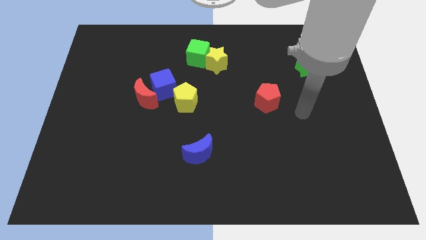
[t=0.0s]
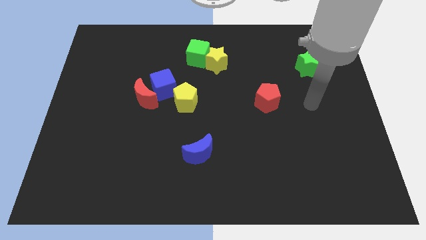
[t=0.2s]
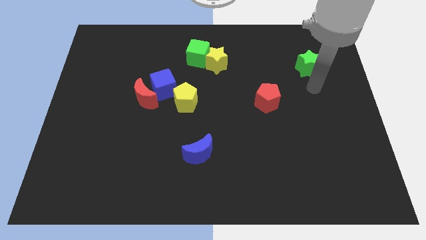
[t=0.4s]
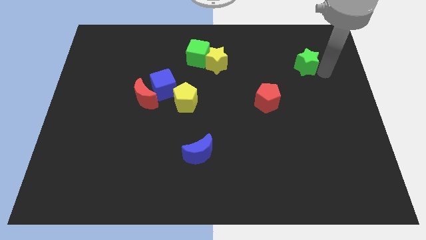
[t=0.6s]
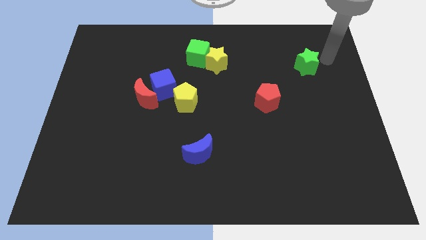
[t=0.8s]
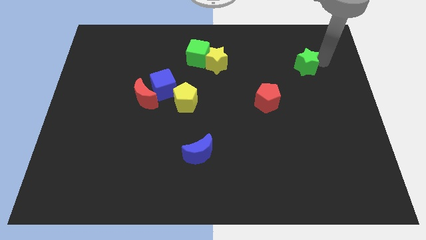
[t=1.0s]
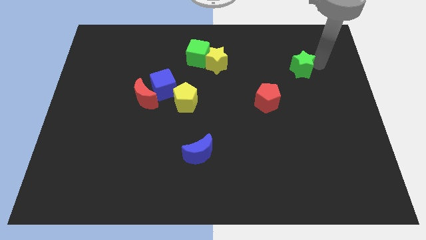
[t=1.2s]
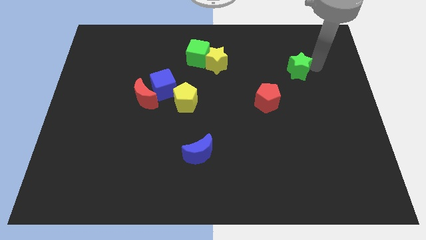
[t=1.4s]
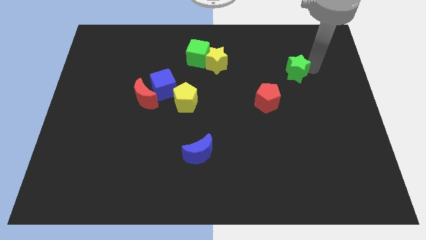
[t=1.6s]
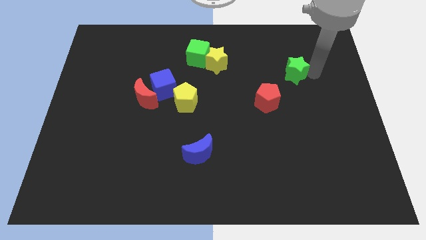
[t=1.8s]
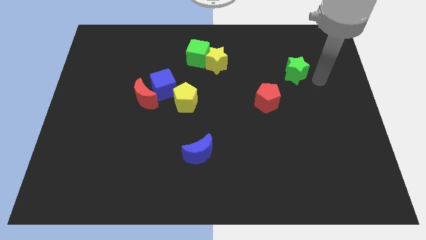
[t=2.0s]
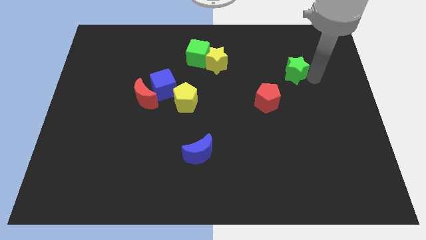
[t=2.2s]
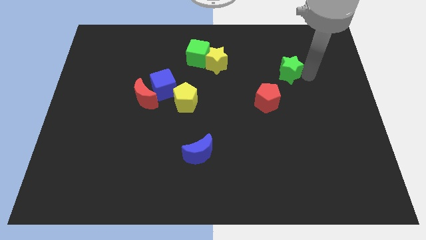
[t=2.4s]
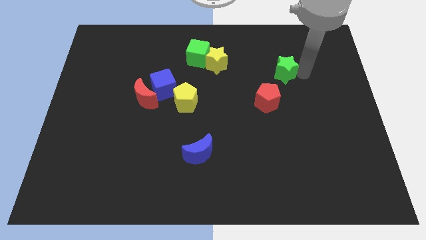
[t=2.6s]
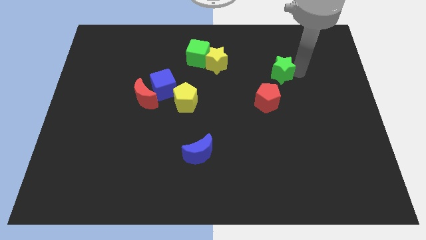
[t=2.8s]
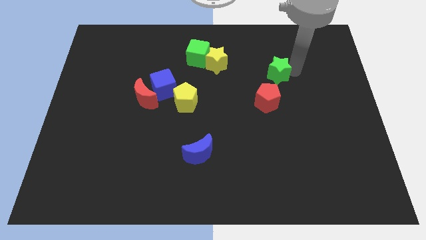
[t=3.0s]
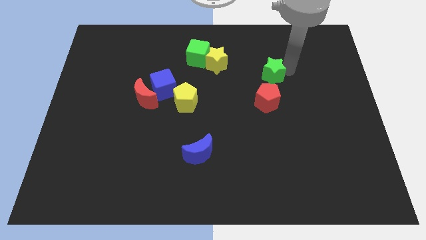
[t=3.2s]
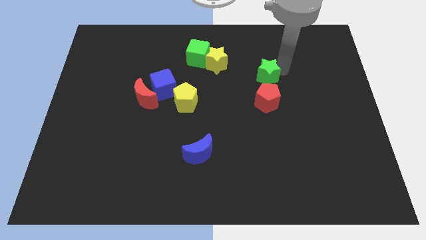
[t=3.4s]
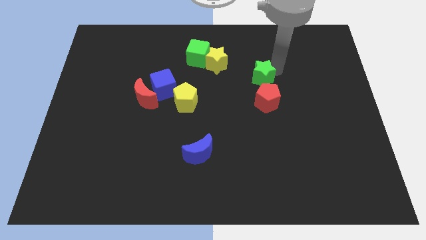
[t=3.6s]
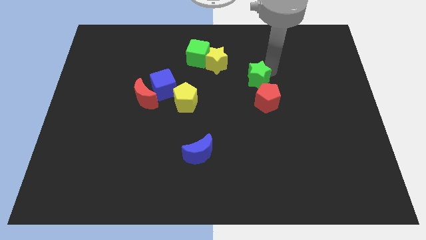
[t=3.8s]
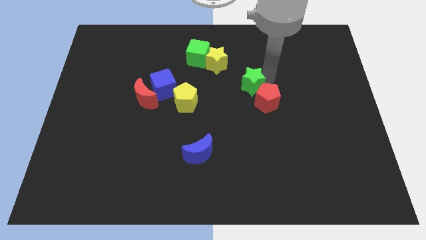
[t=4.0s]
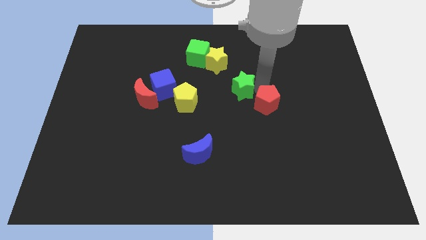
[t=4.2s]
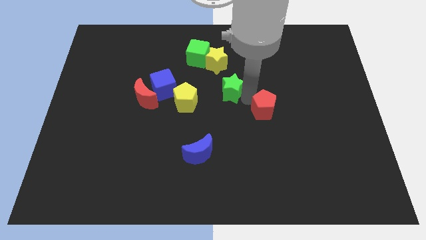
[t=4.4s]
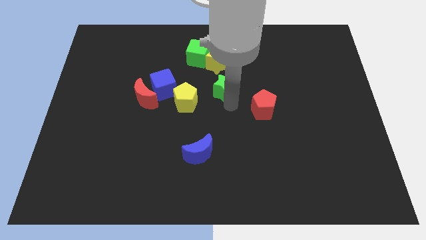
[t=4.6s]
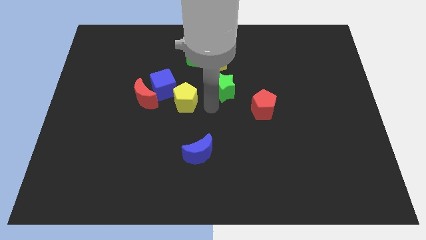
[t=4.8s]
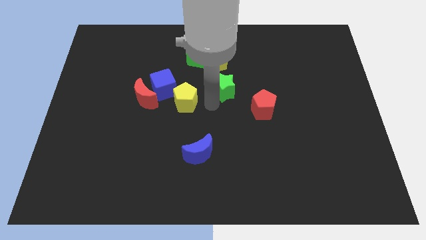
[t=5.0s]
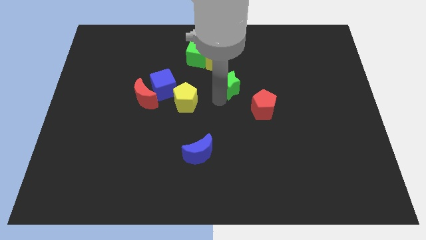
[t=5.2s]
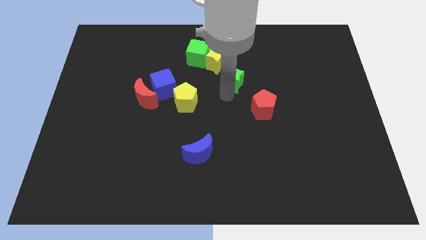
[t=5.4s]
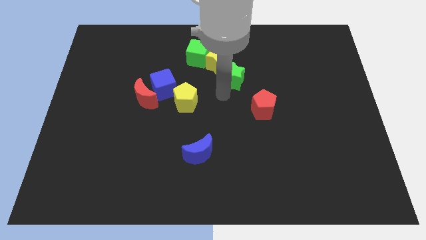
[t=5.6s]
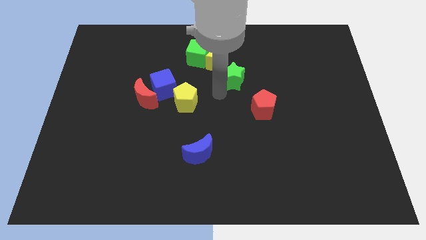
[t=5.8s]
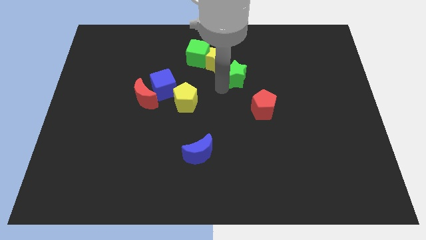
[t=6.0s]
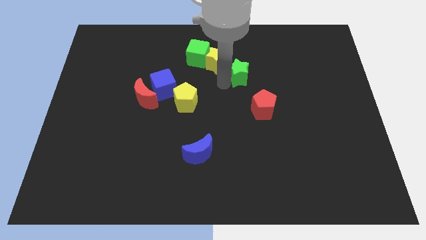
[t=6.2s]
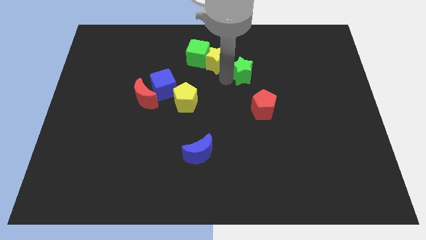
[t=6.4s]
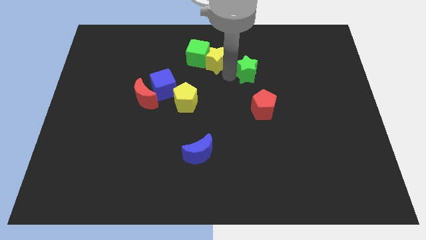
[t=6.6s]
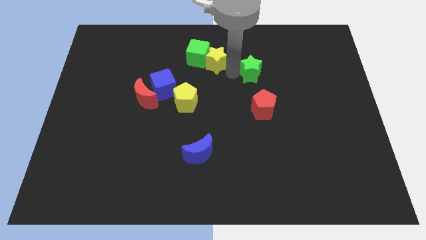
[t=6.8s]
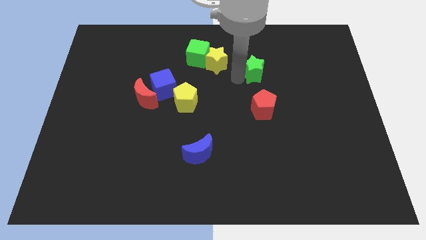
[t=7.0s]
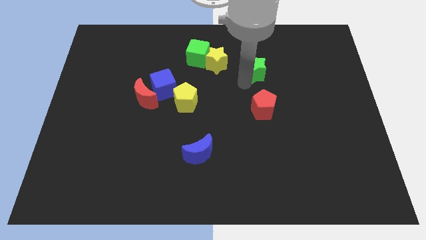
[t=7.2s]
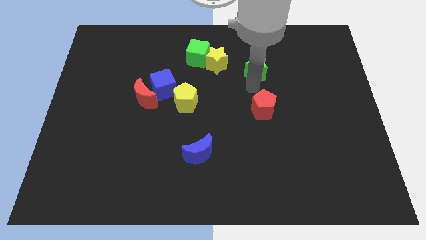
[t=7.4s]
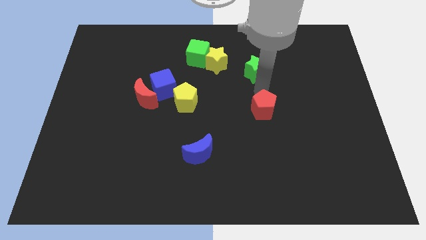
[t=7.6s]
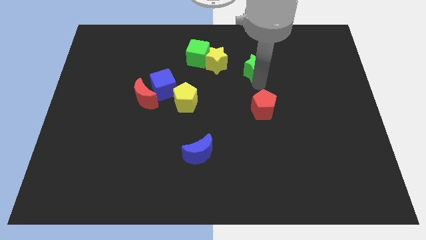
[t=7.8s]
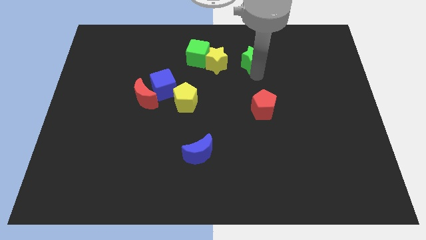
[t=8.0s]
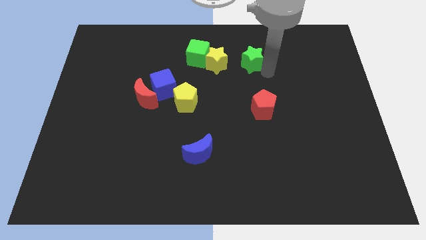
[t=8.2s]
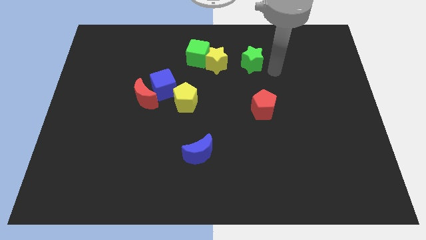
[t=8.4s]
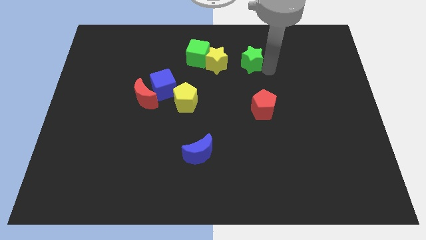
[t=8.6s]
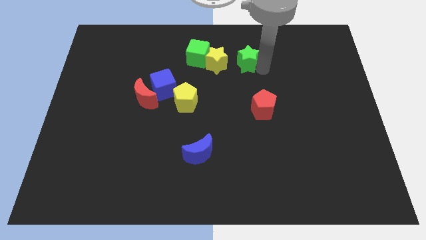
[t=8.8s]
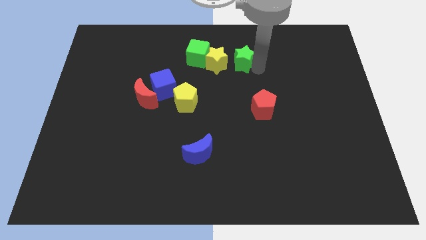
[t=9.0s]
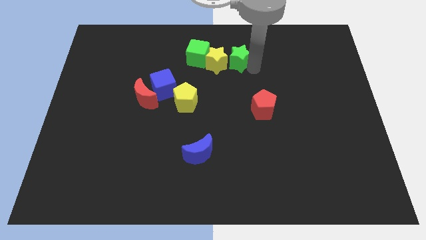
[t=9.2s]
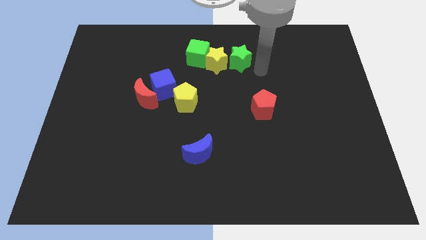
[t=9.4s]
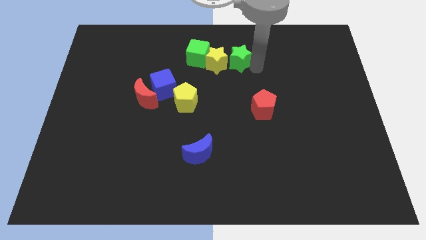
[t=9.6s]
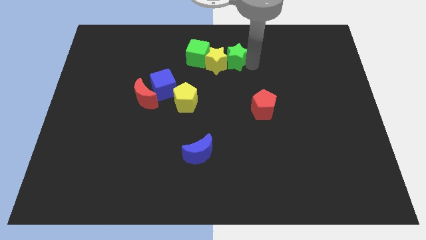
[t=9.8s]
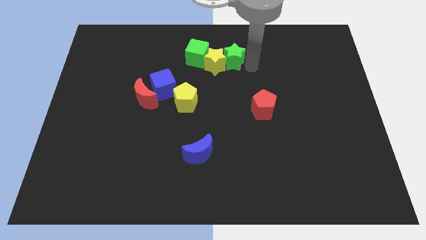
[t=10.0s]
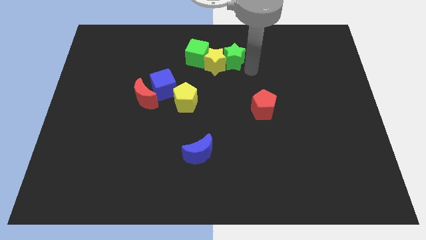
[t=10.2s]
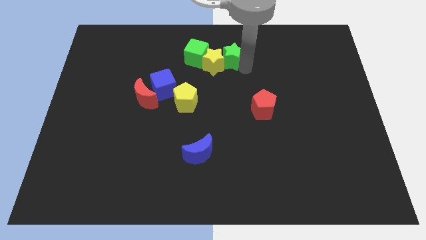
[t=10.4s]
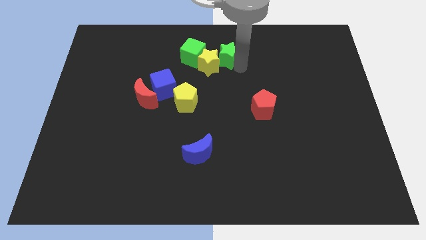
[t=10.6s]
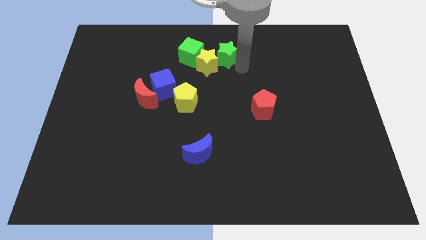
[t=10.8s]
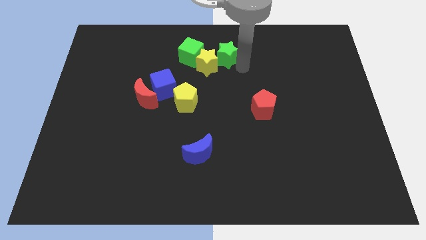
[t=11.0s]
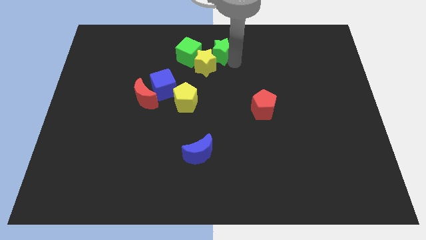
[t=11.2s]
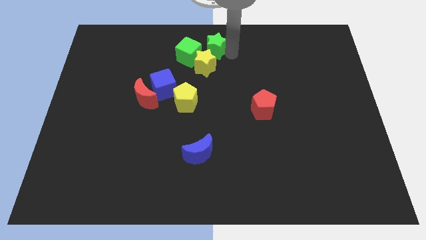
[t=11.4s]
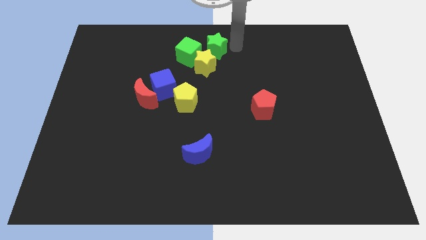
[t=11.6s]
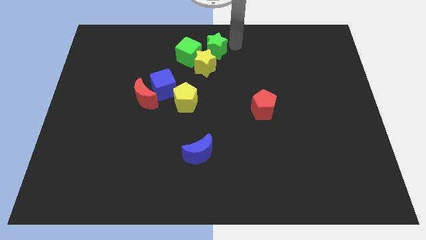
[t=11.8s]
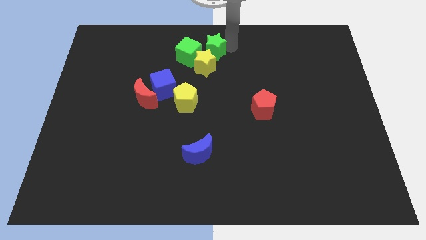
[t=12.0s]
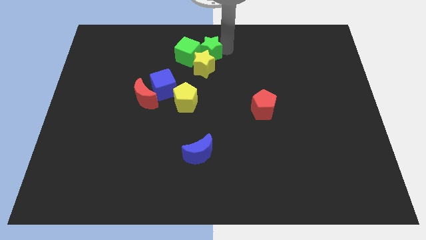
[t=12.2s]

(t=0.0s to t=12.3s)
push the green star towards the green cube

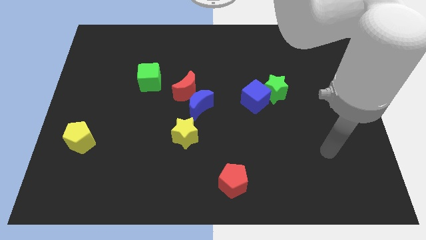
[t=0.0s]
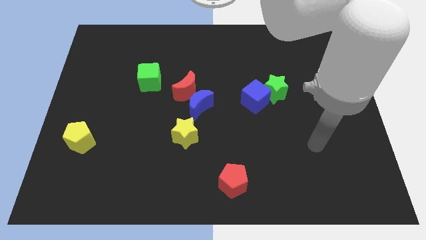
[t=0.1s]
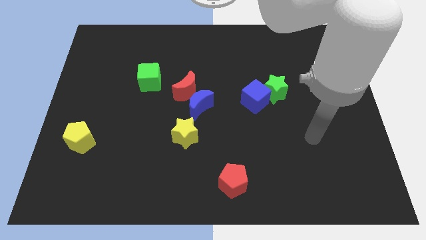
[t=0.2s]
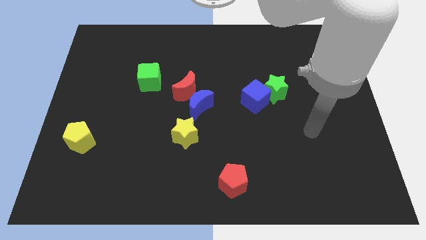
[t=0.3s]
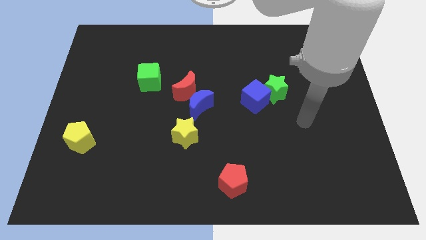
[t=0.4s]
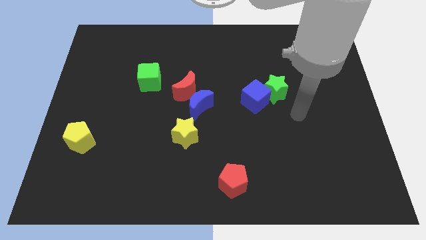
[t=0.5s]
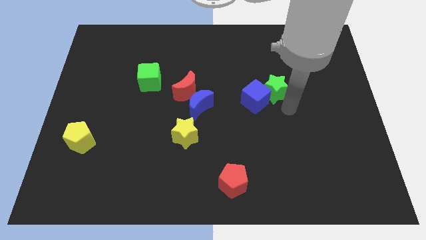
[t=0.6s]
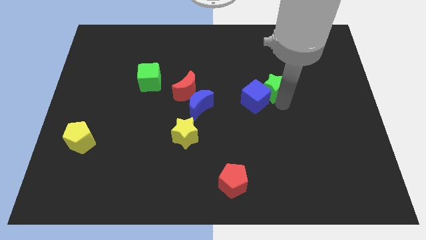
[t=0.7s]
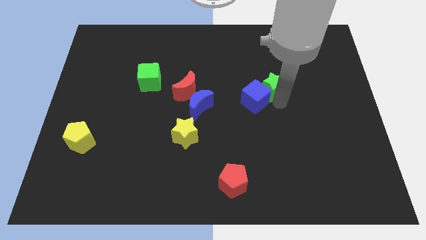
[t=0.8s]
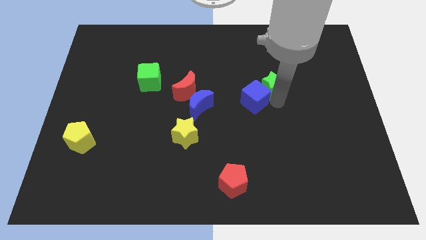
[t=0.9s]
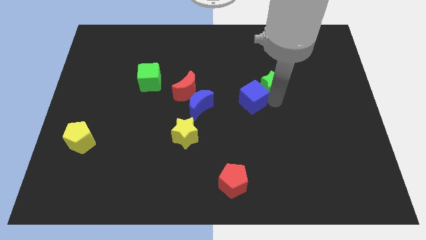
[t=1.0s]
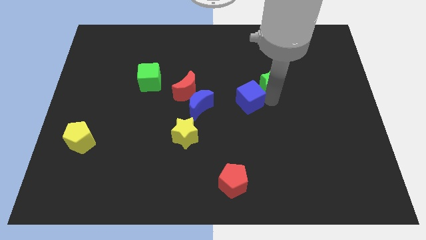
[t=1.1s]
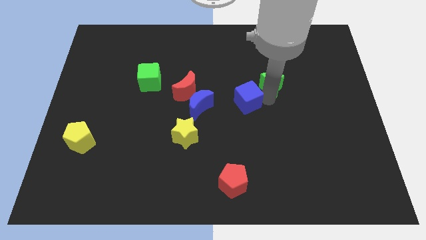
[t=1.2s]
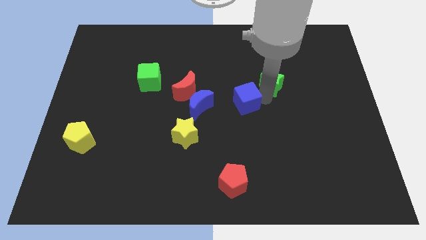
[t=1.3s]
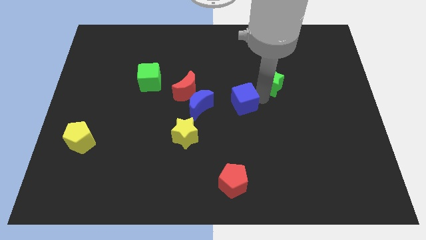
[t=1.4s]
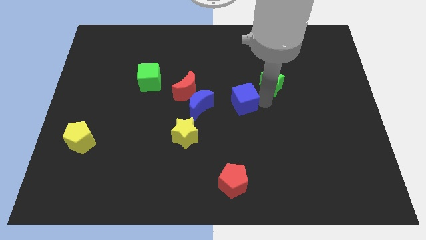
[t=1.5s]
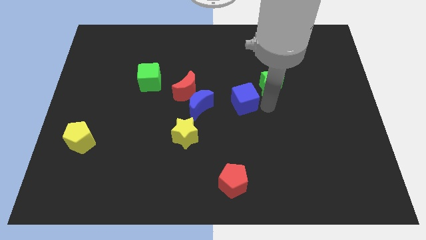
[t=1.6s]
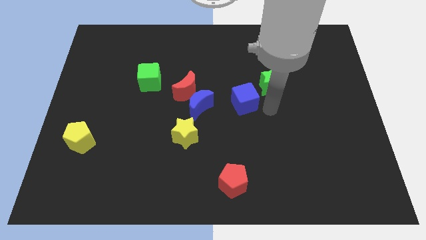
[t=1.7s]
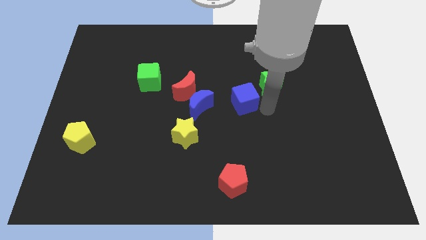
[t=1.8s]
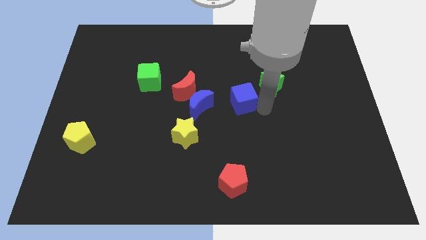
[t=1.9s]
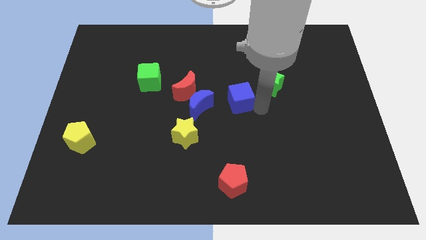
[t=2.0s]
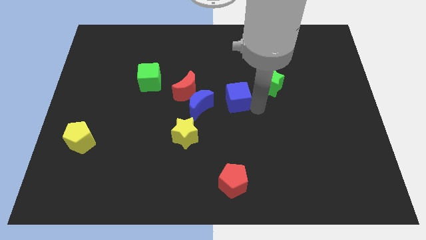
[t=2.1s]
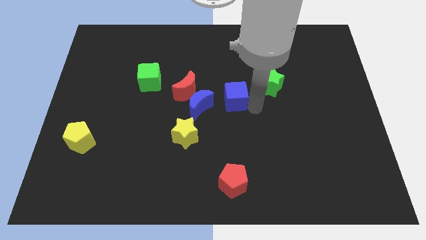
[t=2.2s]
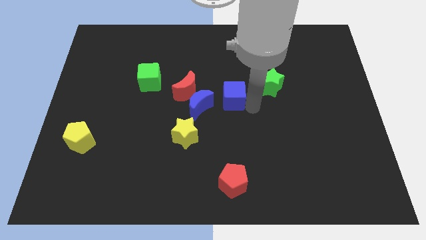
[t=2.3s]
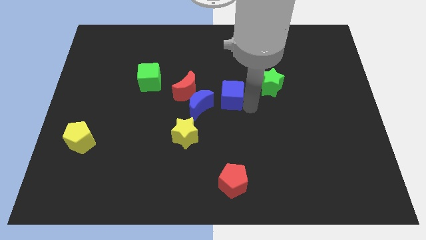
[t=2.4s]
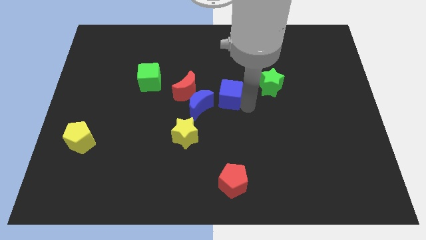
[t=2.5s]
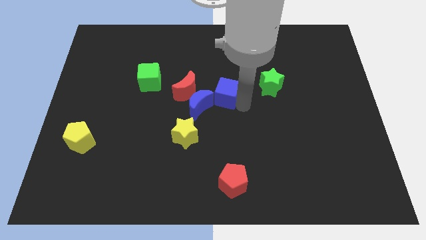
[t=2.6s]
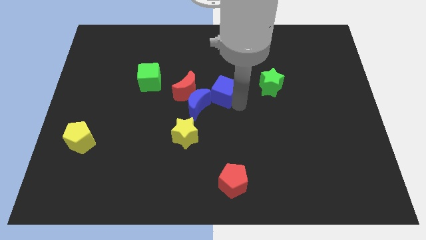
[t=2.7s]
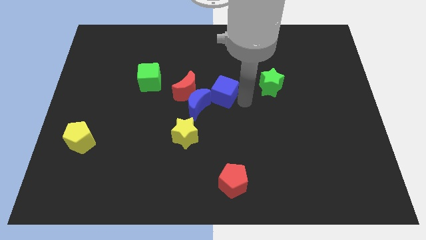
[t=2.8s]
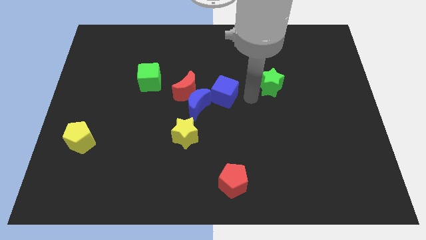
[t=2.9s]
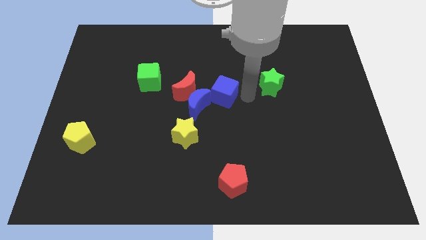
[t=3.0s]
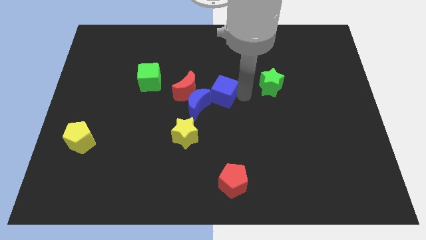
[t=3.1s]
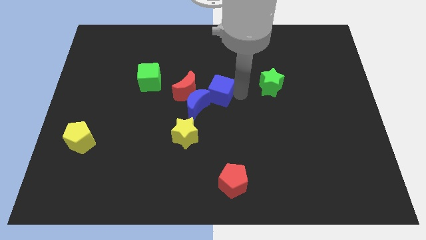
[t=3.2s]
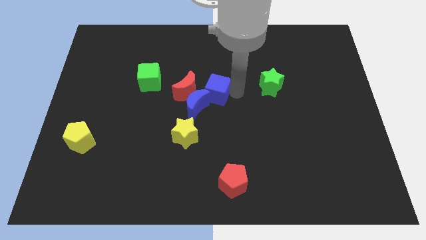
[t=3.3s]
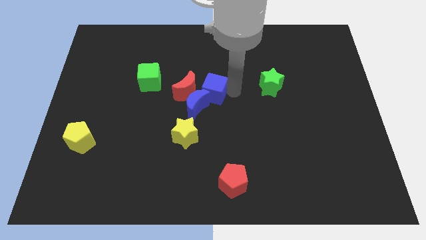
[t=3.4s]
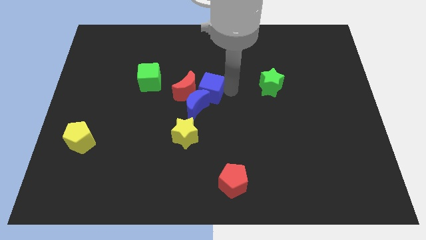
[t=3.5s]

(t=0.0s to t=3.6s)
push the blue cube next to the red moon
